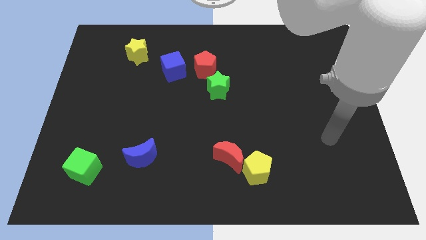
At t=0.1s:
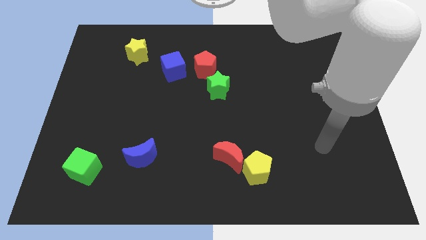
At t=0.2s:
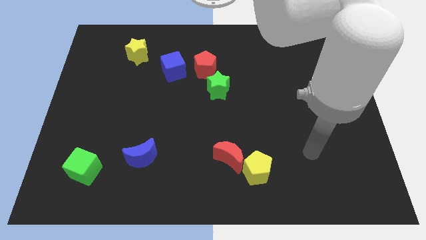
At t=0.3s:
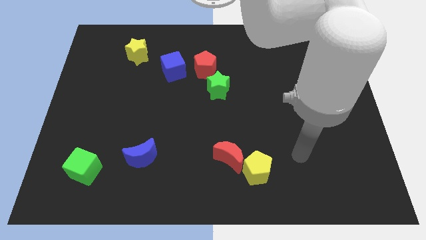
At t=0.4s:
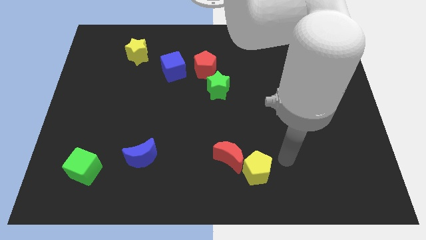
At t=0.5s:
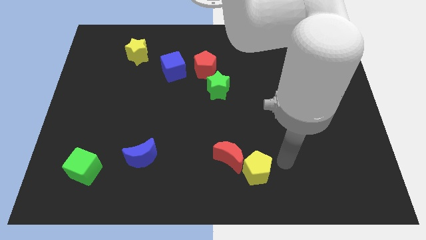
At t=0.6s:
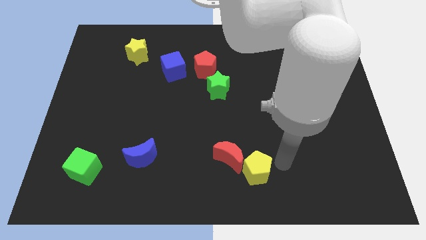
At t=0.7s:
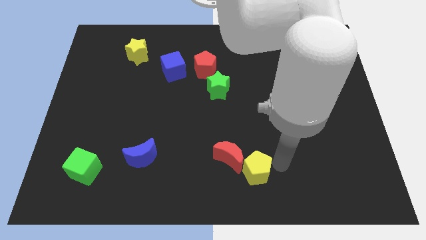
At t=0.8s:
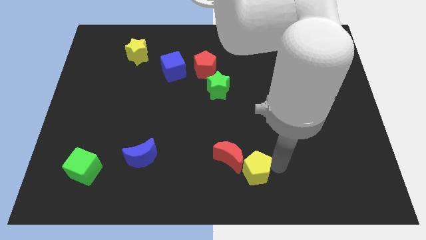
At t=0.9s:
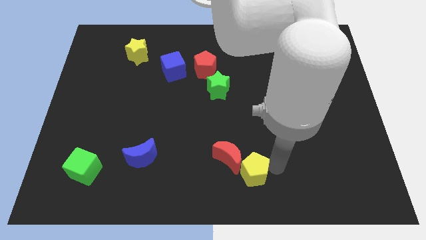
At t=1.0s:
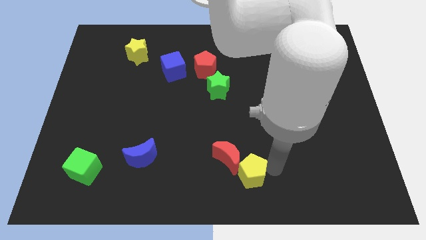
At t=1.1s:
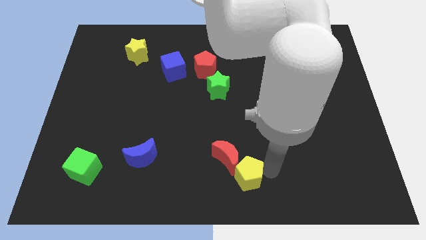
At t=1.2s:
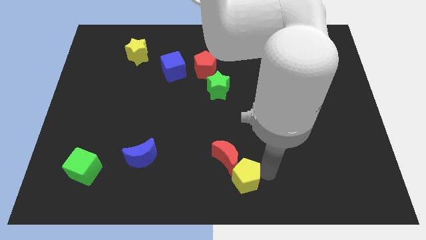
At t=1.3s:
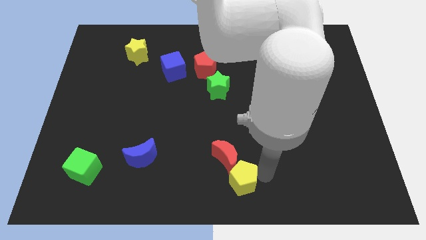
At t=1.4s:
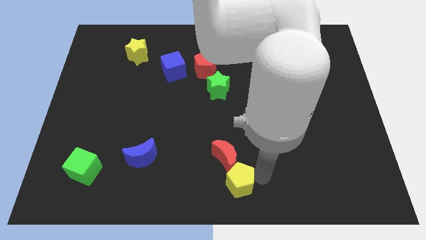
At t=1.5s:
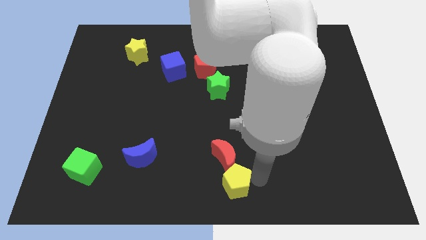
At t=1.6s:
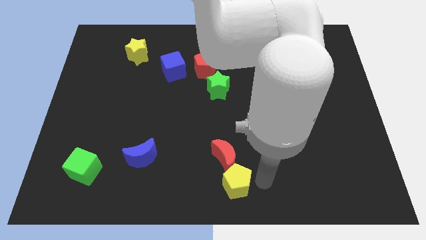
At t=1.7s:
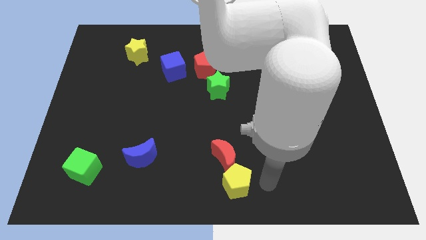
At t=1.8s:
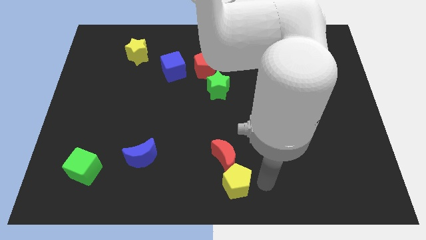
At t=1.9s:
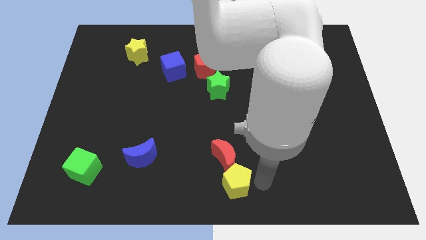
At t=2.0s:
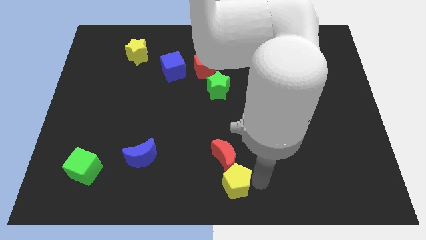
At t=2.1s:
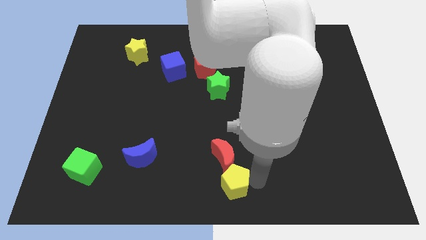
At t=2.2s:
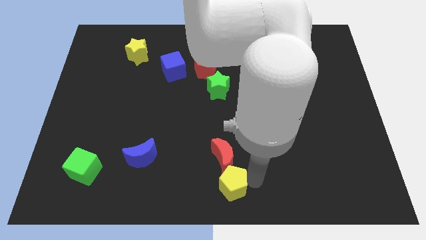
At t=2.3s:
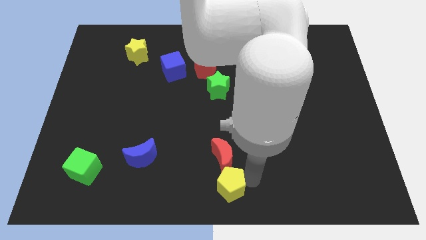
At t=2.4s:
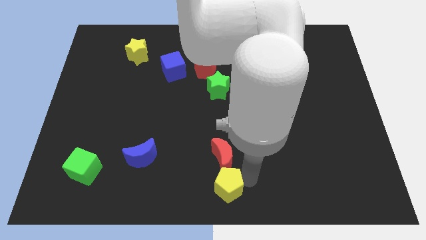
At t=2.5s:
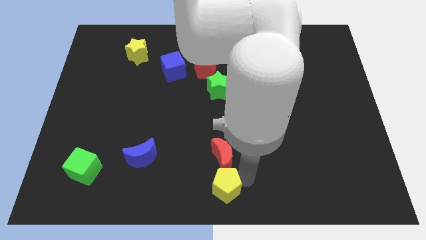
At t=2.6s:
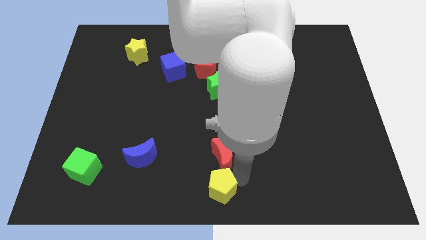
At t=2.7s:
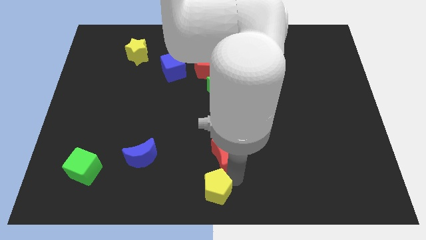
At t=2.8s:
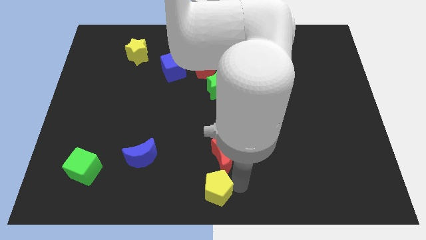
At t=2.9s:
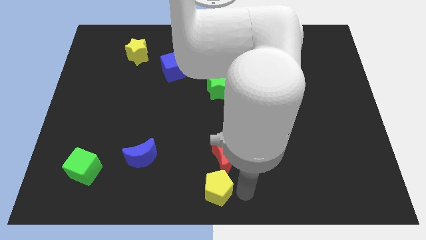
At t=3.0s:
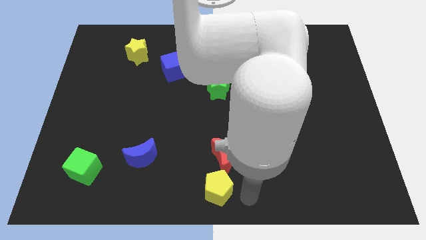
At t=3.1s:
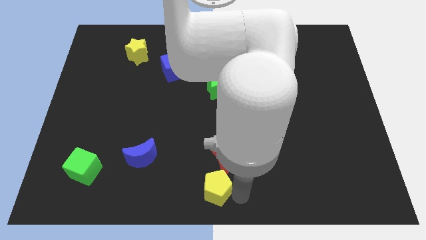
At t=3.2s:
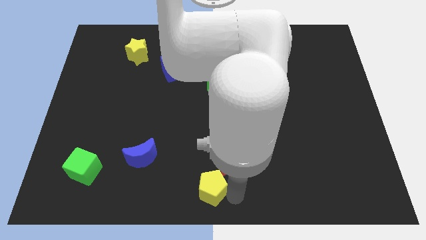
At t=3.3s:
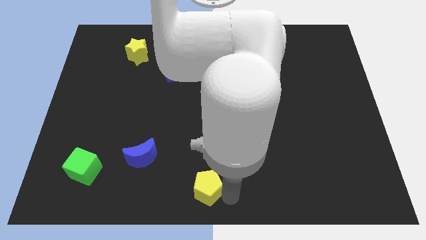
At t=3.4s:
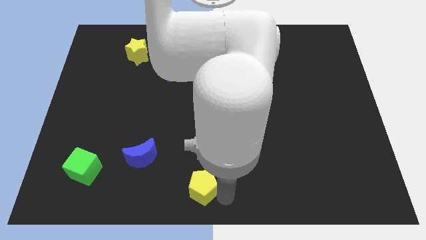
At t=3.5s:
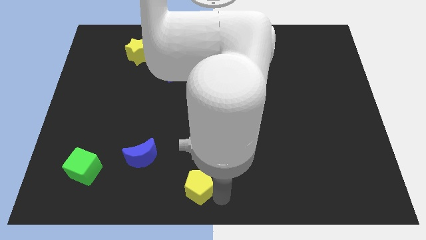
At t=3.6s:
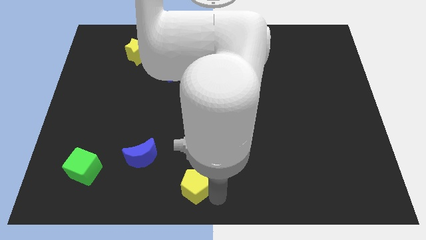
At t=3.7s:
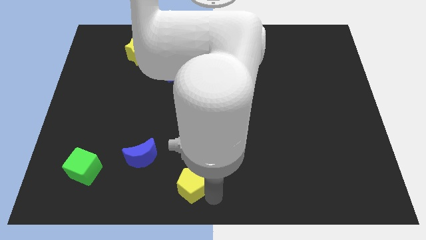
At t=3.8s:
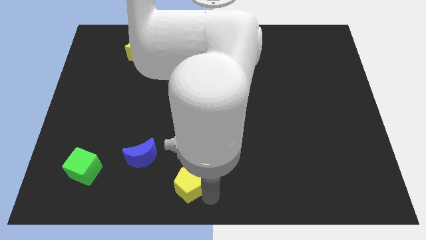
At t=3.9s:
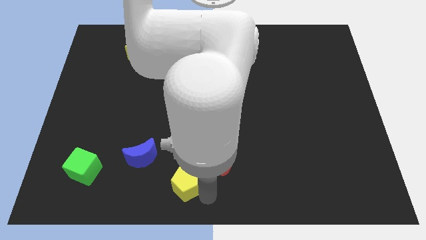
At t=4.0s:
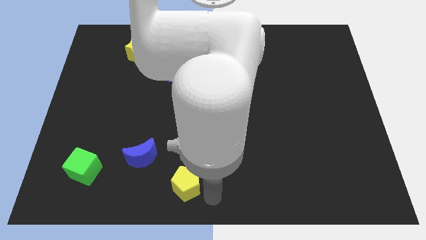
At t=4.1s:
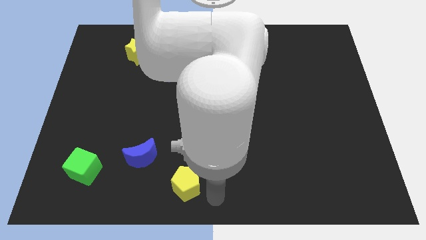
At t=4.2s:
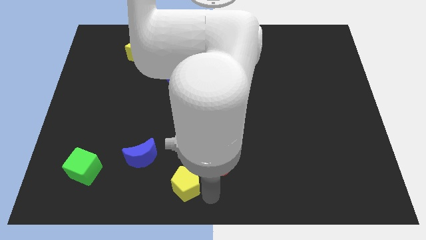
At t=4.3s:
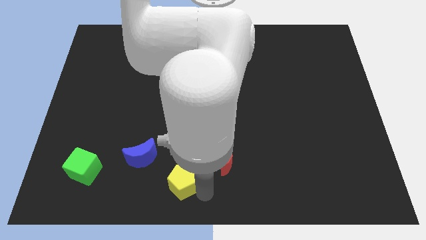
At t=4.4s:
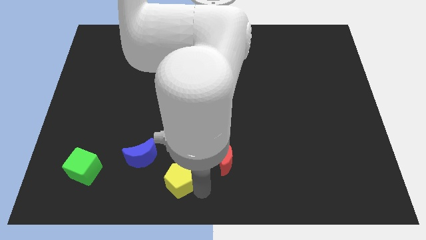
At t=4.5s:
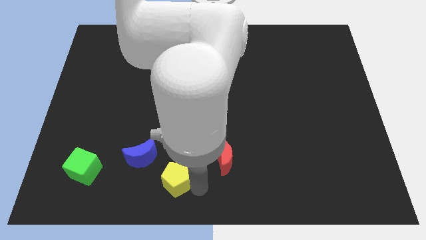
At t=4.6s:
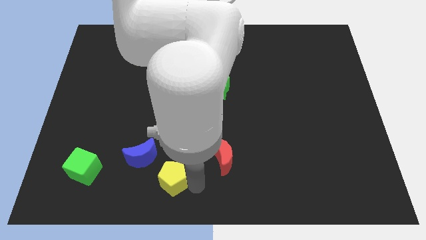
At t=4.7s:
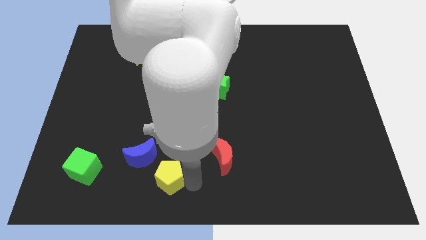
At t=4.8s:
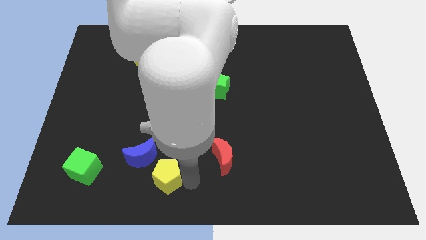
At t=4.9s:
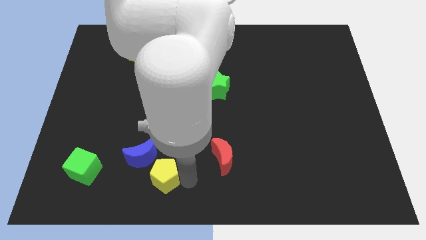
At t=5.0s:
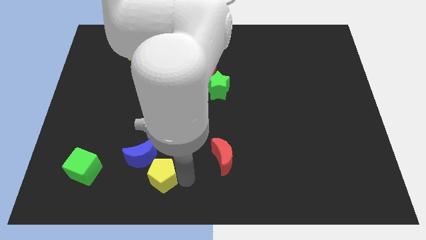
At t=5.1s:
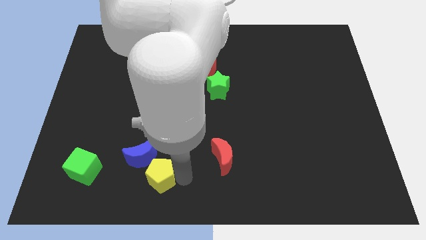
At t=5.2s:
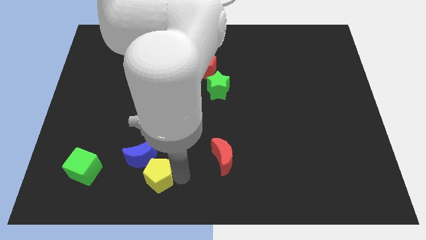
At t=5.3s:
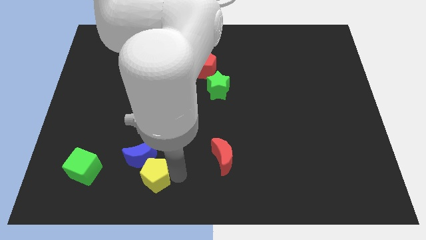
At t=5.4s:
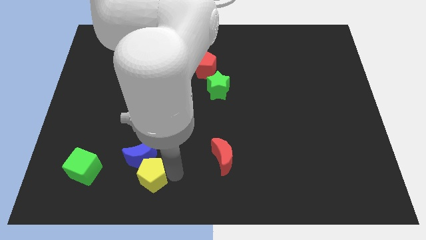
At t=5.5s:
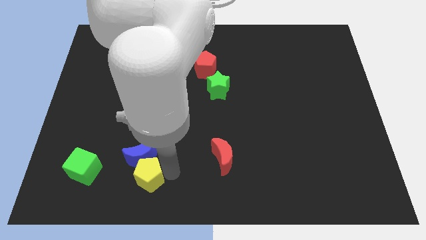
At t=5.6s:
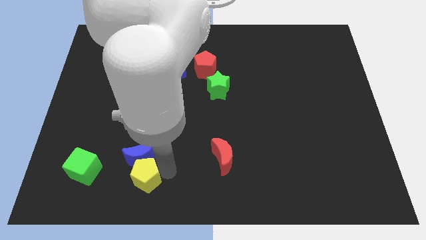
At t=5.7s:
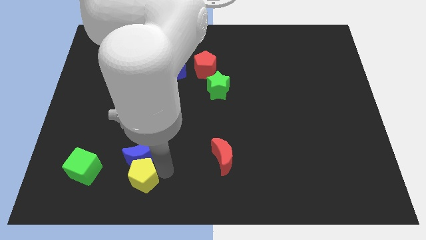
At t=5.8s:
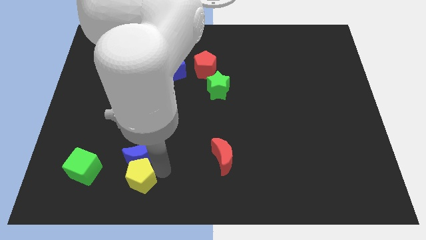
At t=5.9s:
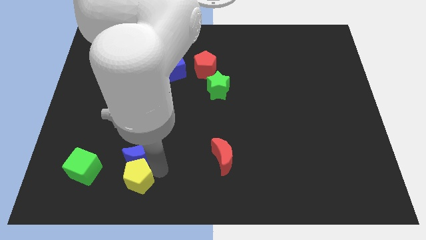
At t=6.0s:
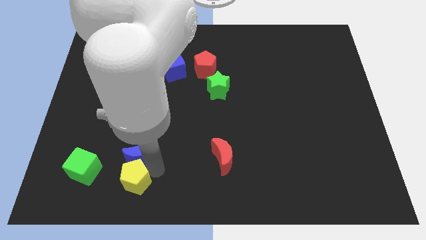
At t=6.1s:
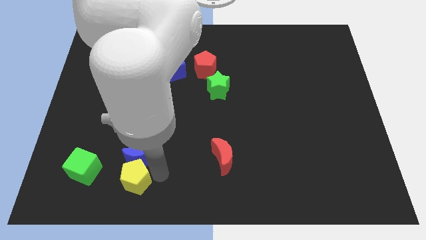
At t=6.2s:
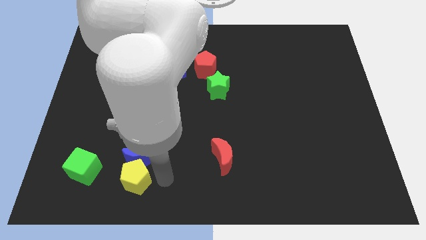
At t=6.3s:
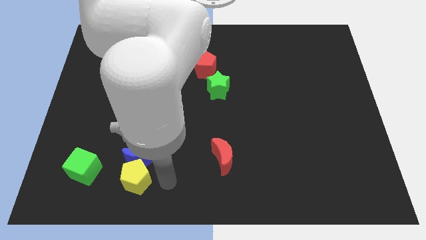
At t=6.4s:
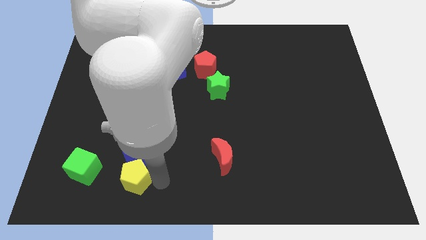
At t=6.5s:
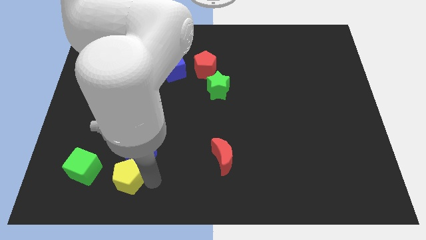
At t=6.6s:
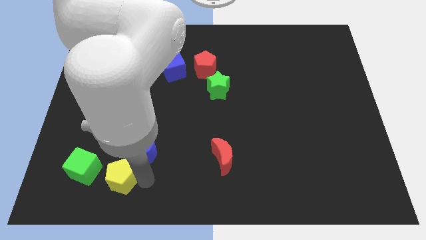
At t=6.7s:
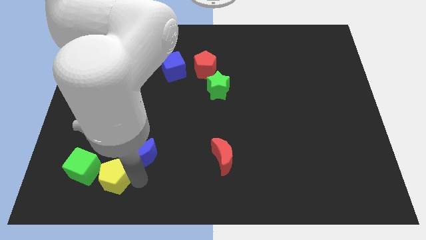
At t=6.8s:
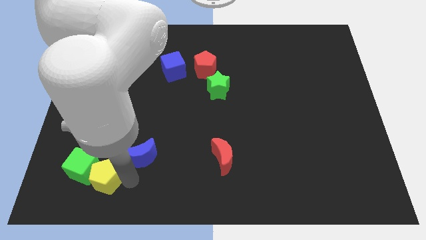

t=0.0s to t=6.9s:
put the yellow pentagon close to the green cube
